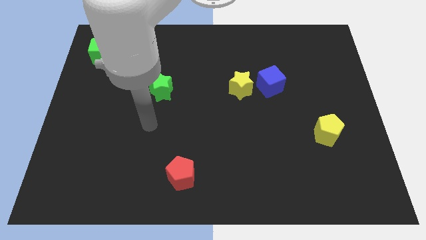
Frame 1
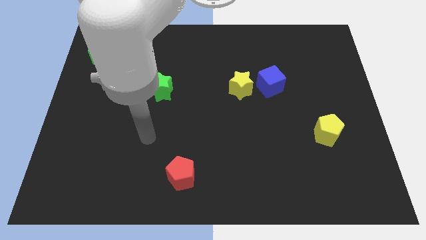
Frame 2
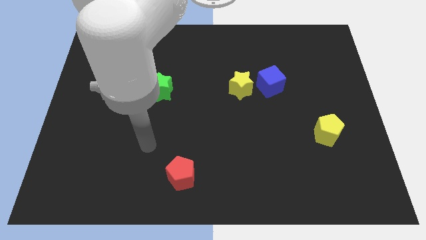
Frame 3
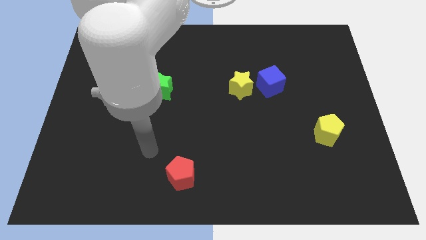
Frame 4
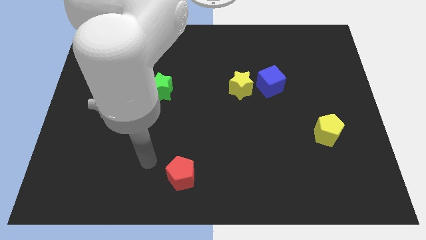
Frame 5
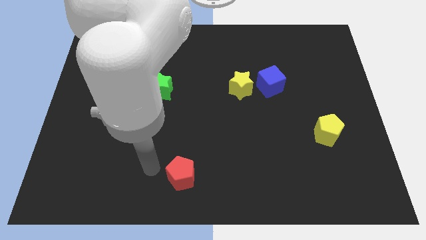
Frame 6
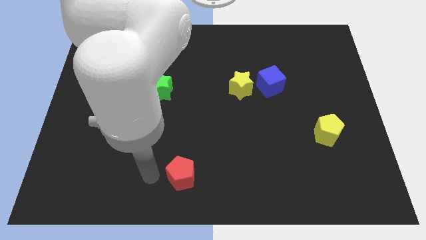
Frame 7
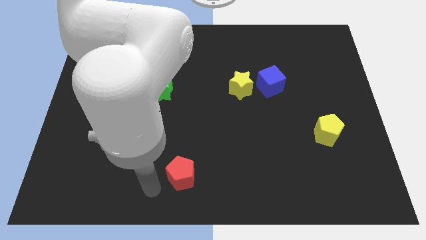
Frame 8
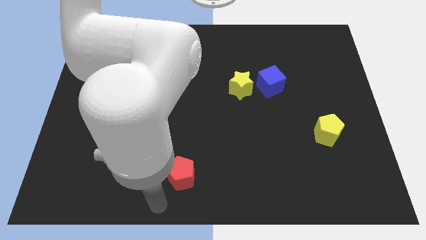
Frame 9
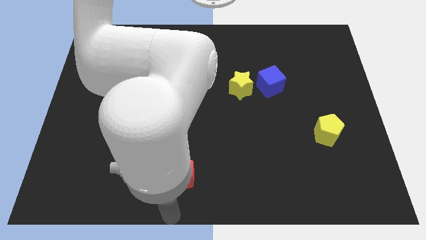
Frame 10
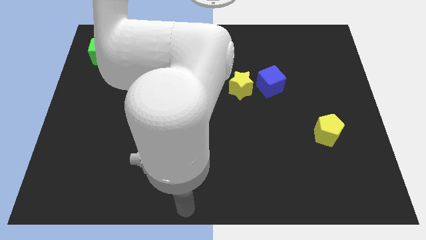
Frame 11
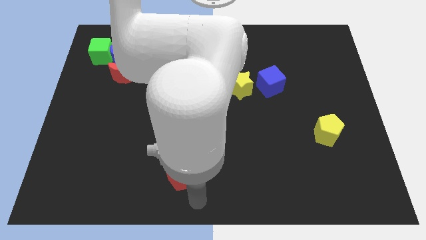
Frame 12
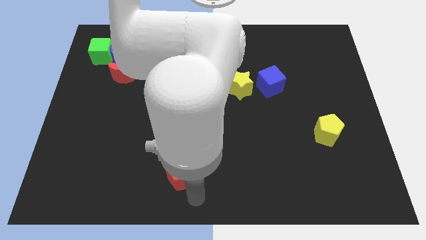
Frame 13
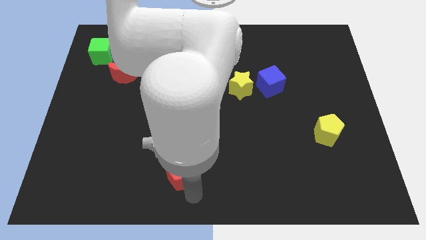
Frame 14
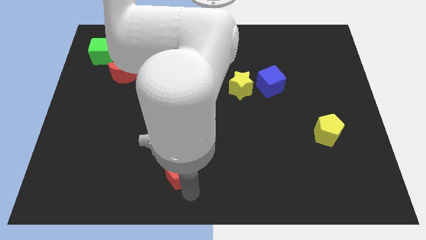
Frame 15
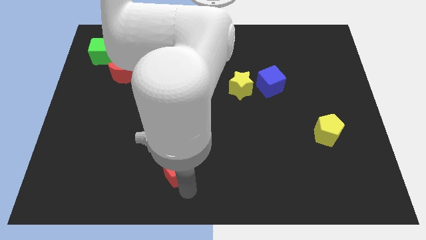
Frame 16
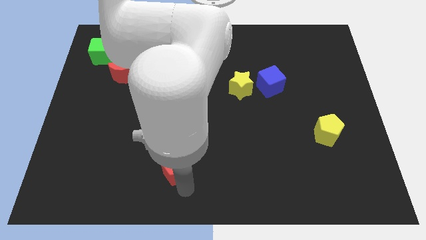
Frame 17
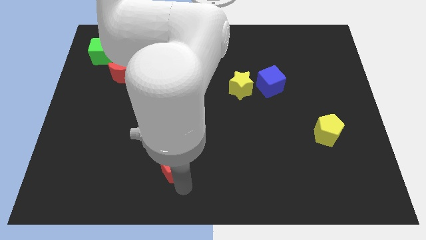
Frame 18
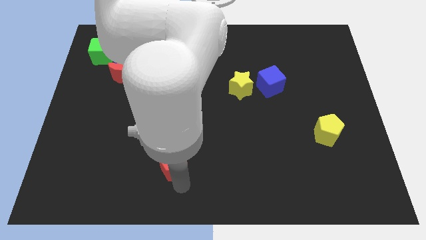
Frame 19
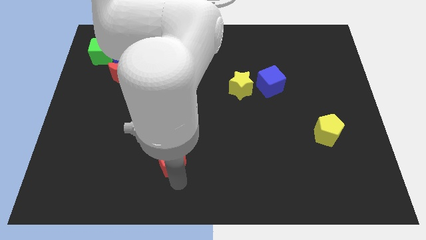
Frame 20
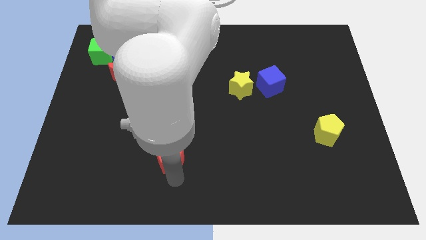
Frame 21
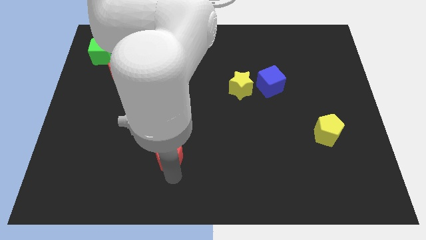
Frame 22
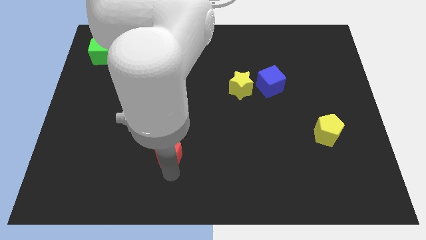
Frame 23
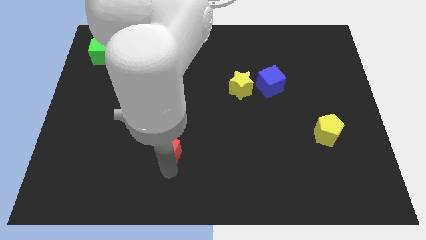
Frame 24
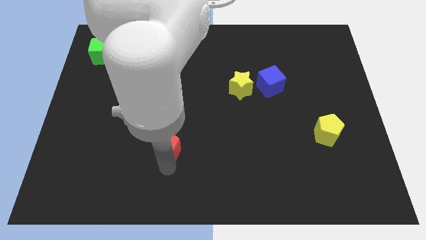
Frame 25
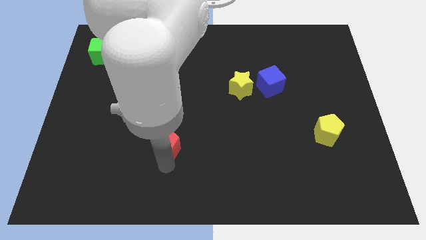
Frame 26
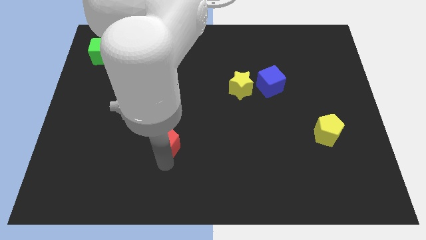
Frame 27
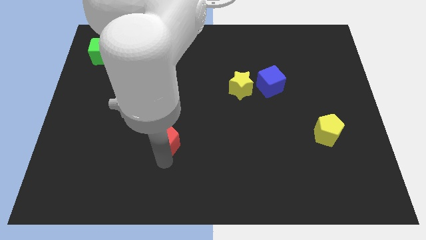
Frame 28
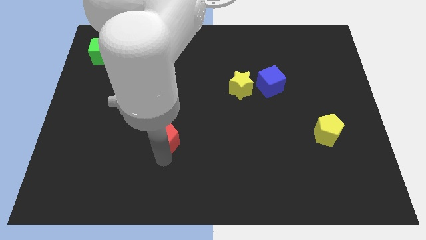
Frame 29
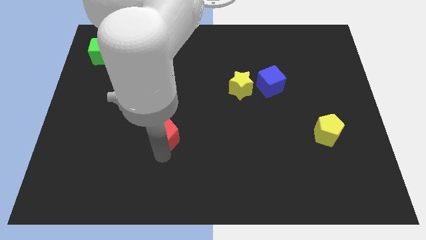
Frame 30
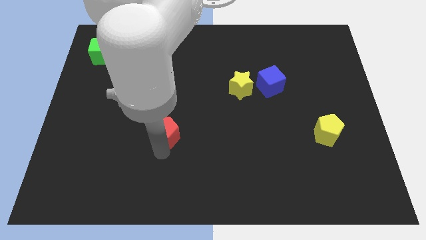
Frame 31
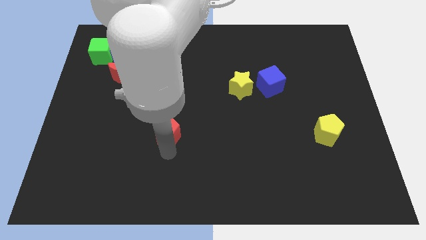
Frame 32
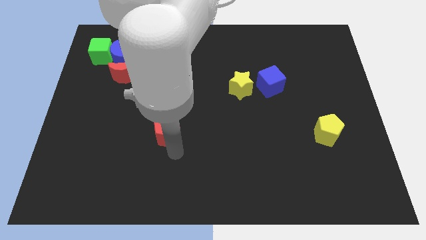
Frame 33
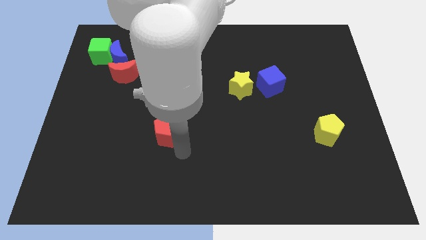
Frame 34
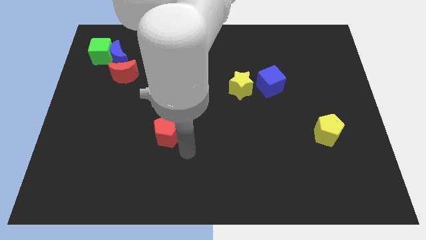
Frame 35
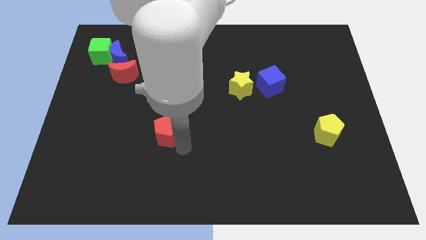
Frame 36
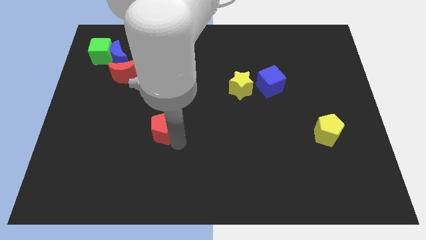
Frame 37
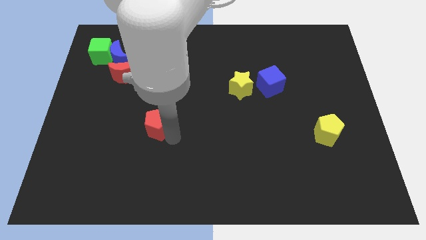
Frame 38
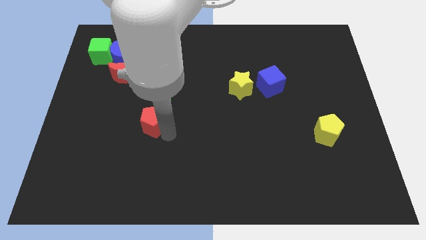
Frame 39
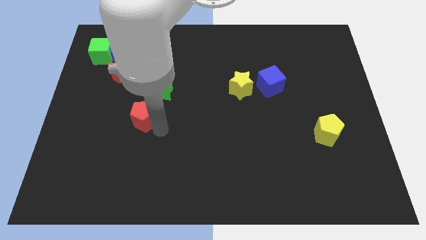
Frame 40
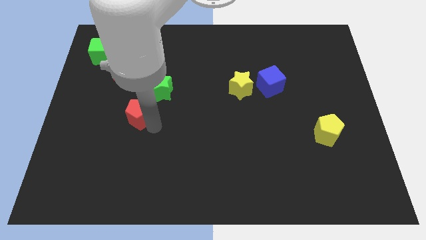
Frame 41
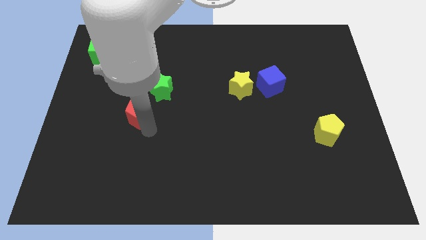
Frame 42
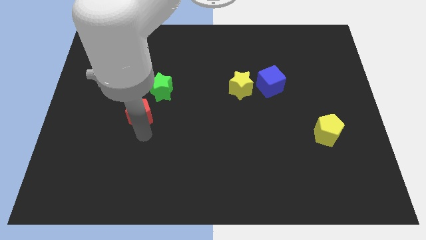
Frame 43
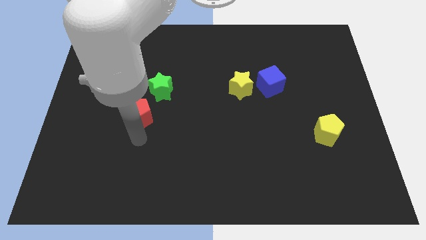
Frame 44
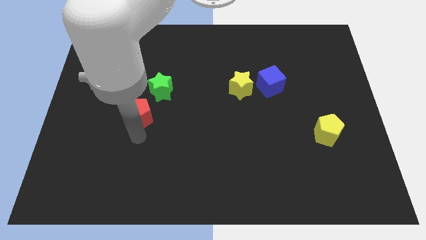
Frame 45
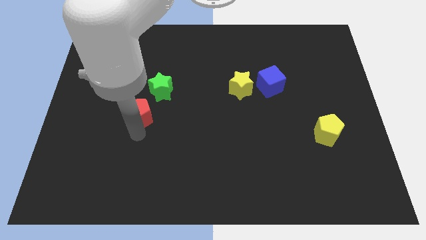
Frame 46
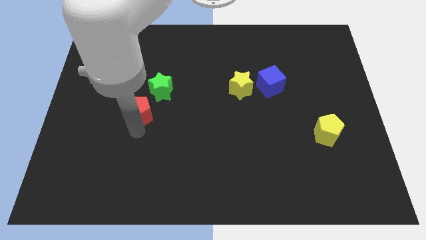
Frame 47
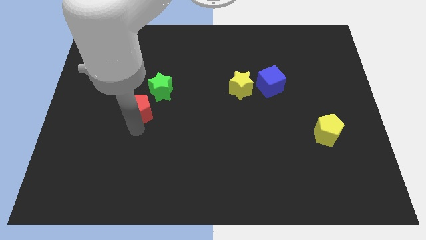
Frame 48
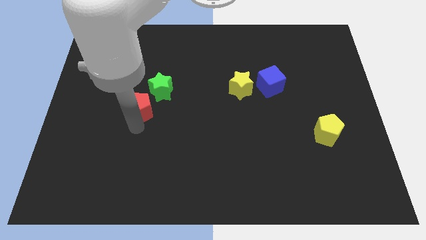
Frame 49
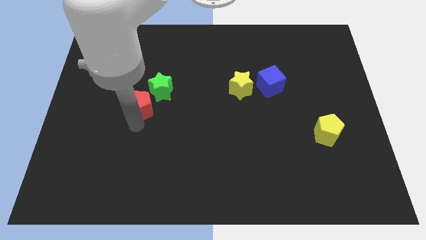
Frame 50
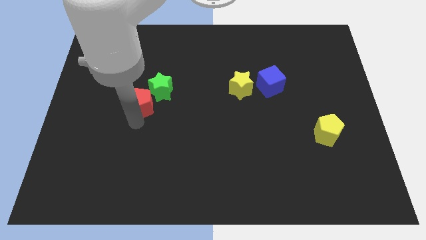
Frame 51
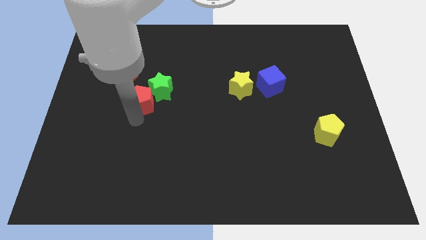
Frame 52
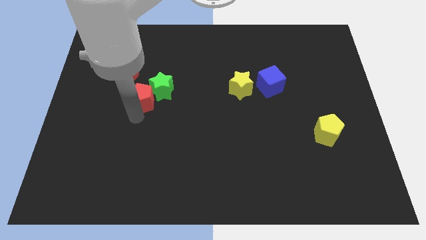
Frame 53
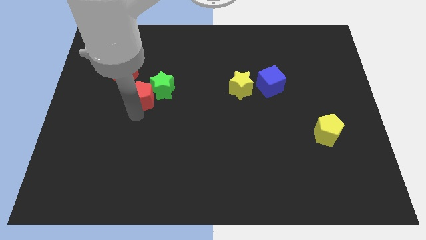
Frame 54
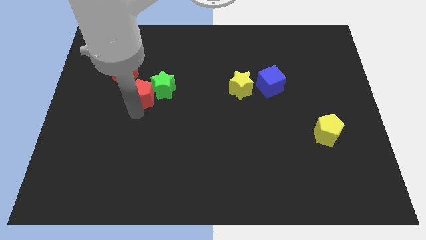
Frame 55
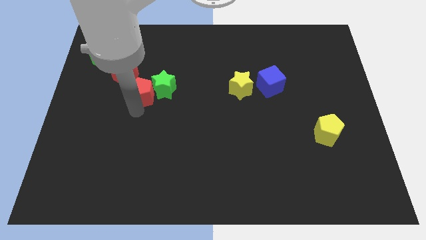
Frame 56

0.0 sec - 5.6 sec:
put the red pentagon to the top left side of the green star

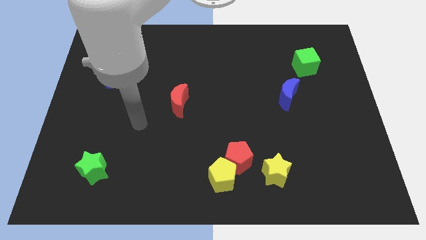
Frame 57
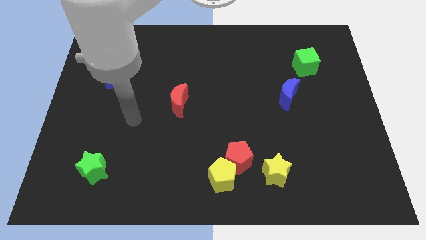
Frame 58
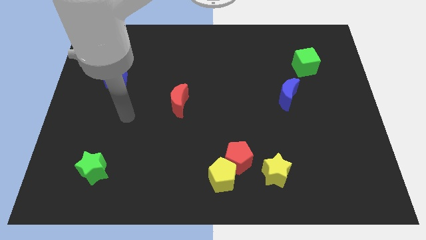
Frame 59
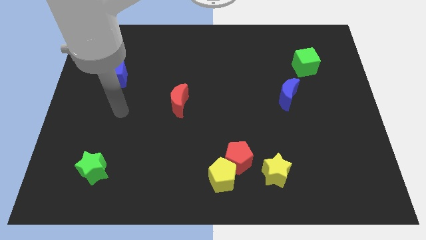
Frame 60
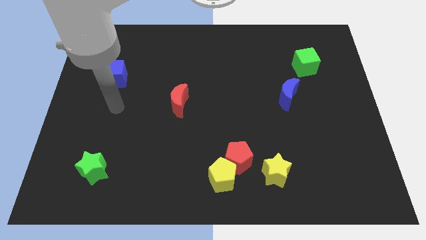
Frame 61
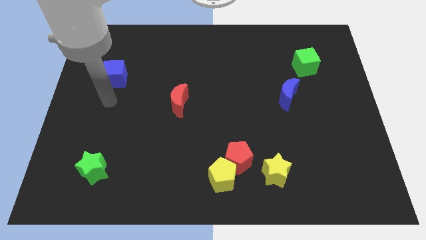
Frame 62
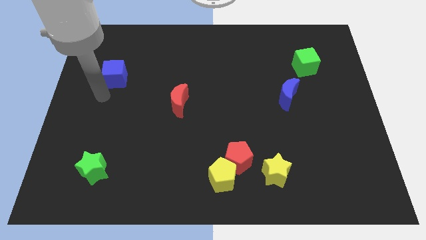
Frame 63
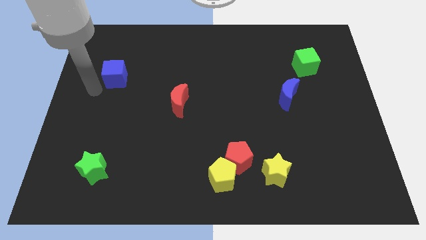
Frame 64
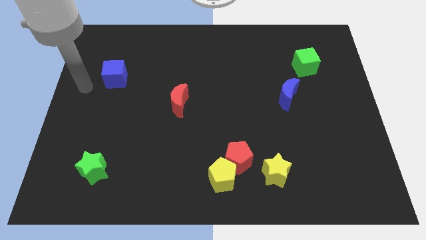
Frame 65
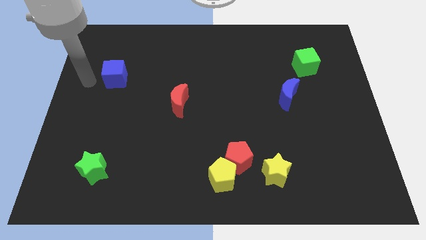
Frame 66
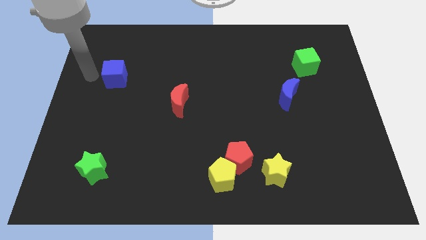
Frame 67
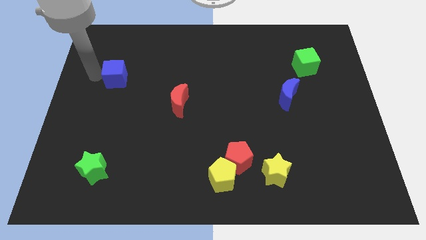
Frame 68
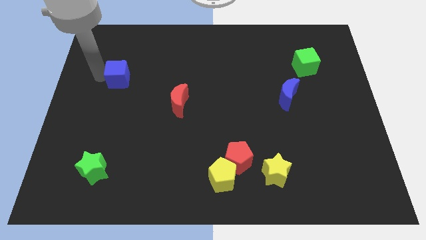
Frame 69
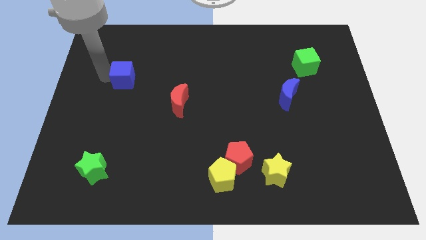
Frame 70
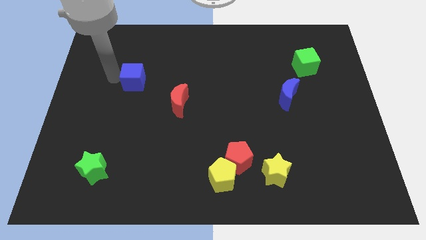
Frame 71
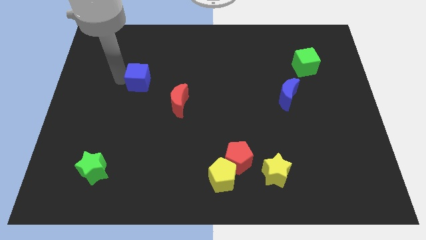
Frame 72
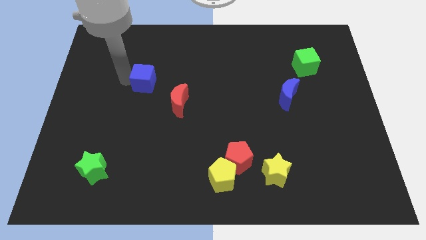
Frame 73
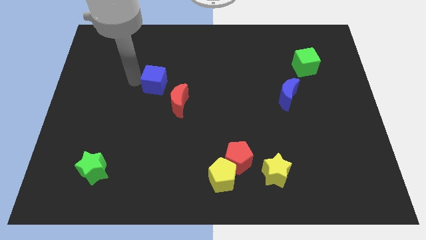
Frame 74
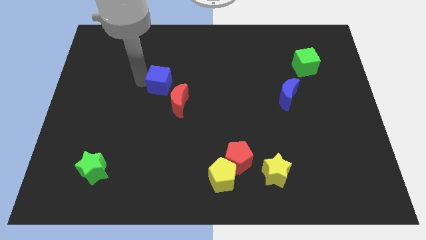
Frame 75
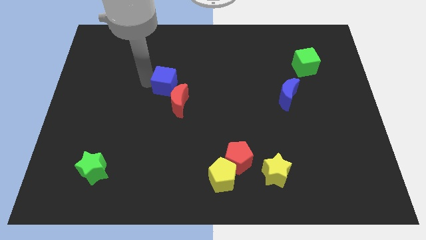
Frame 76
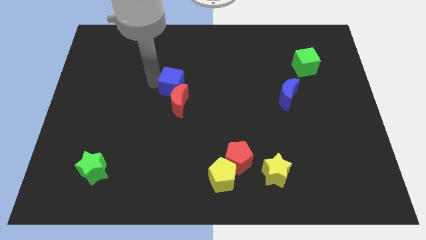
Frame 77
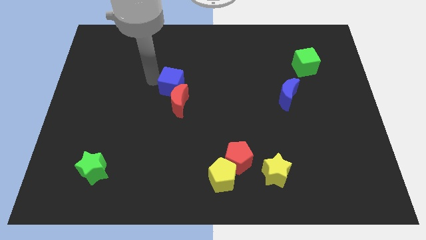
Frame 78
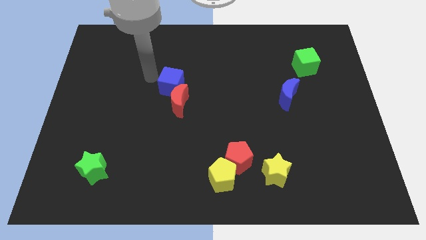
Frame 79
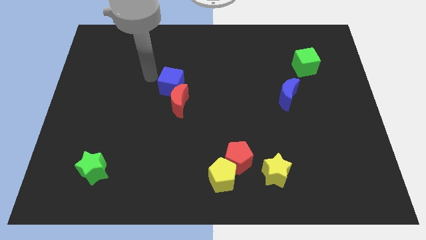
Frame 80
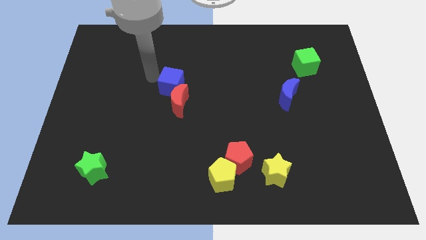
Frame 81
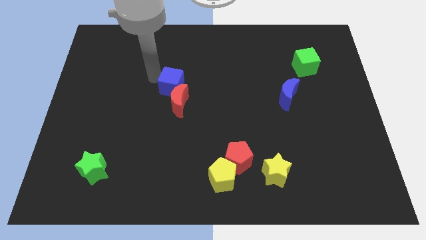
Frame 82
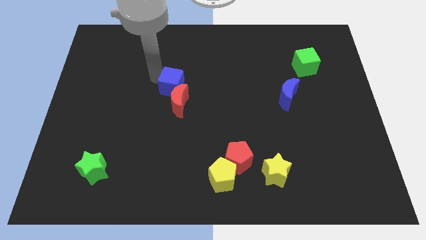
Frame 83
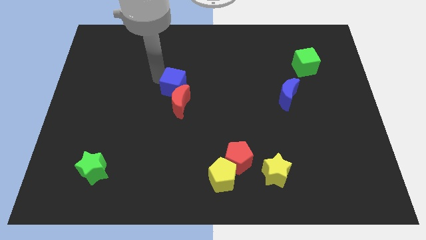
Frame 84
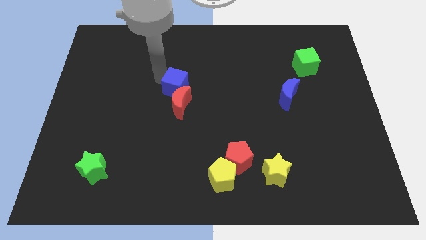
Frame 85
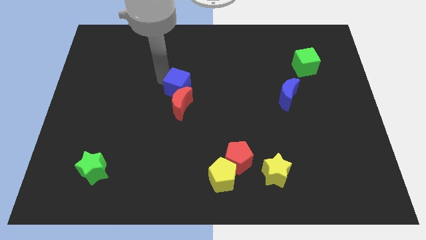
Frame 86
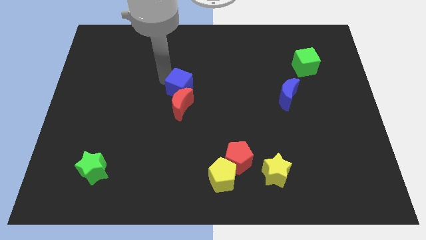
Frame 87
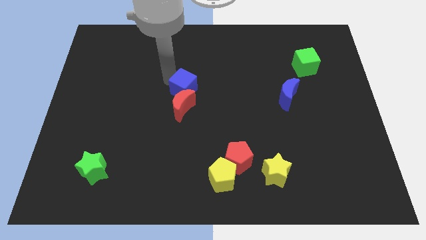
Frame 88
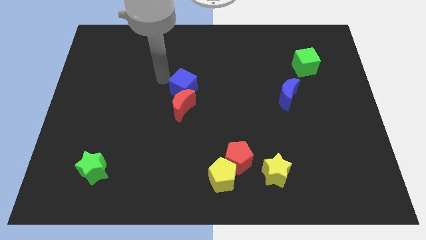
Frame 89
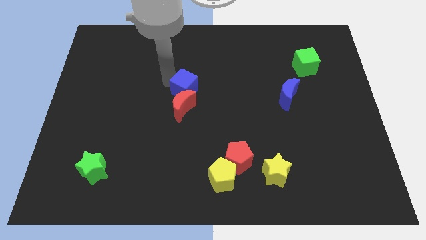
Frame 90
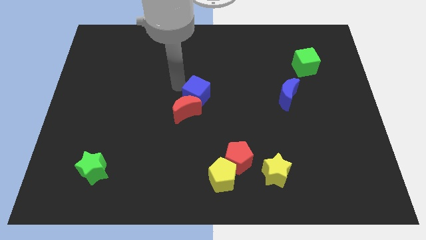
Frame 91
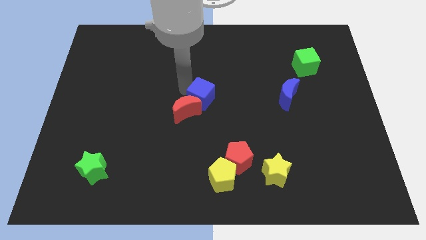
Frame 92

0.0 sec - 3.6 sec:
push the blue cube to the right side of the red moon
